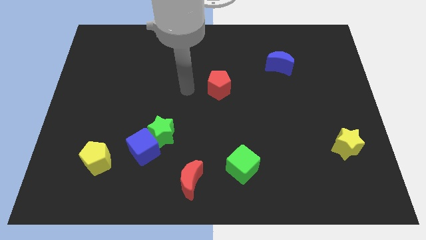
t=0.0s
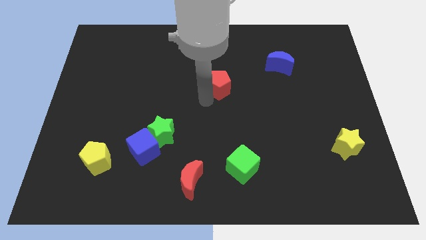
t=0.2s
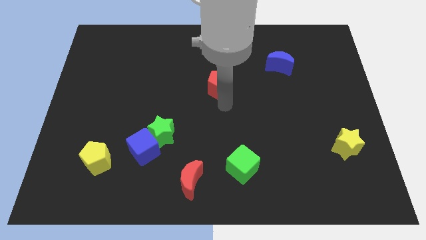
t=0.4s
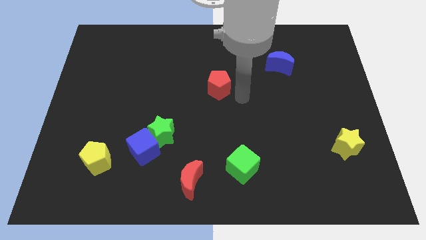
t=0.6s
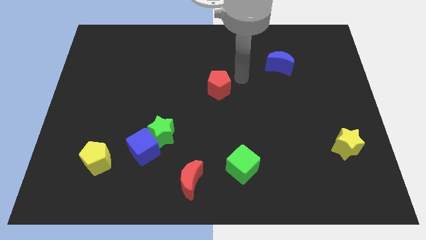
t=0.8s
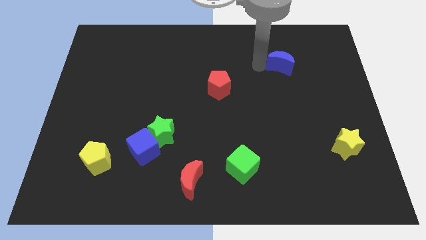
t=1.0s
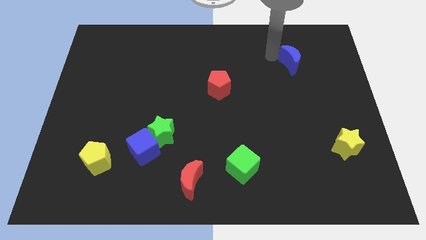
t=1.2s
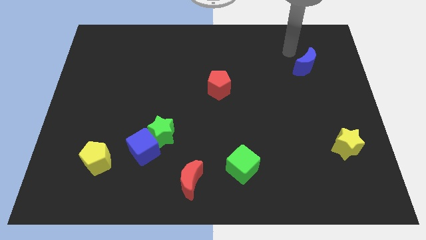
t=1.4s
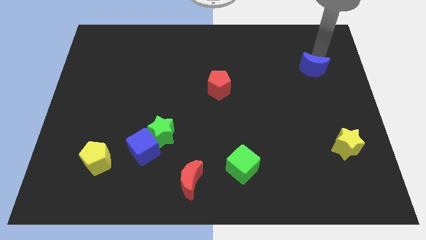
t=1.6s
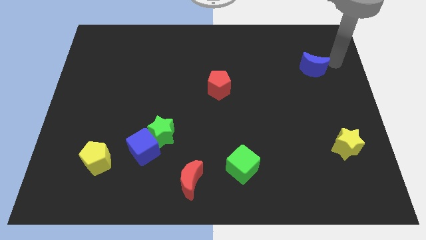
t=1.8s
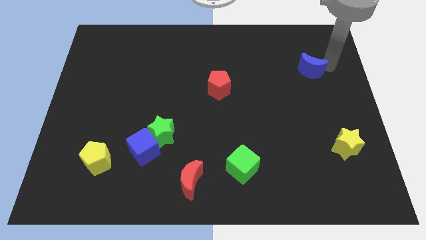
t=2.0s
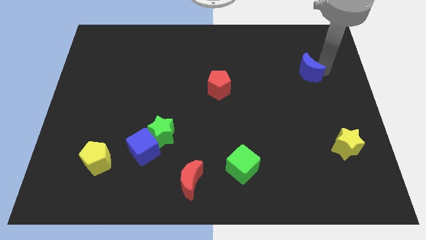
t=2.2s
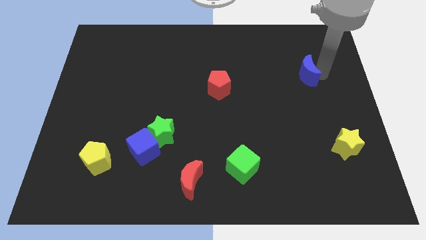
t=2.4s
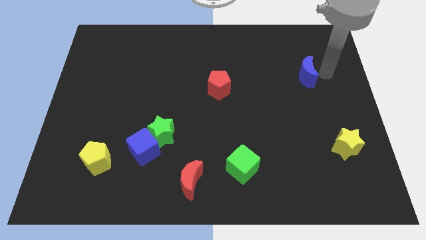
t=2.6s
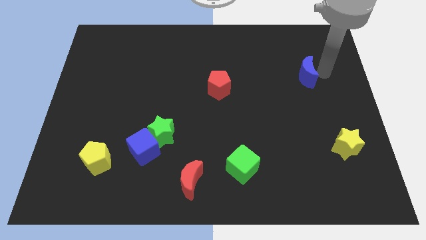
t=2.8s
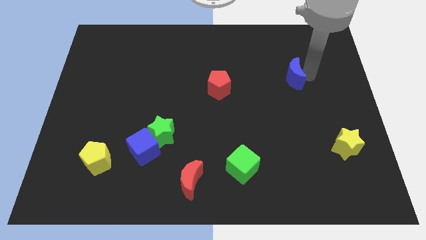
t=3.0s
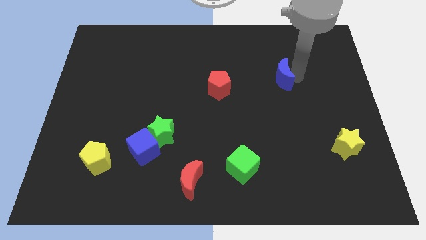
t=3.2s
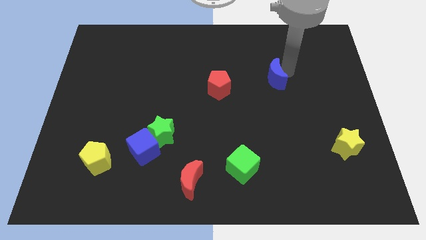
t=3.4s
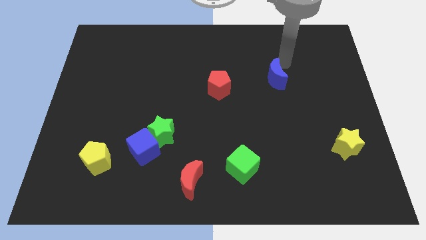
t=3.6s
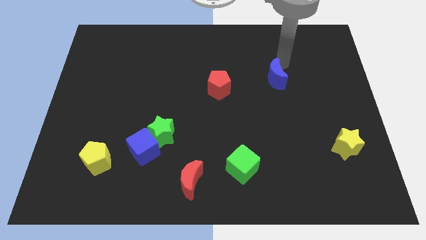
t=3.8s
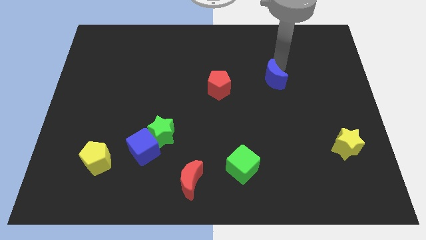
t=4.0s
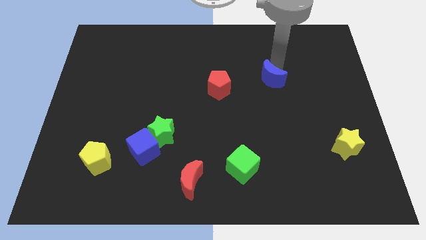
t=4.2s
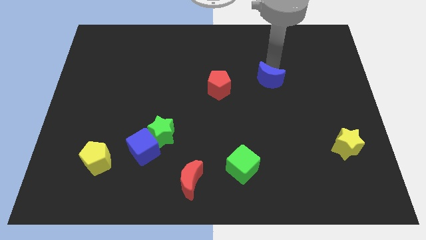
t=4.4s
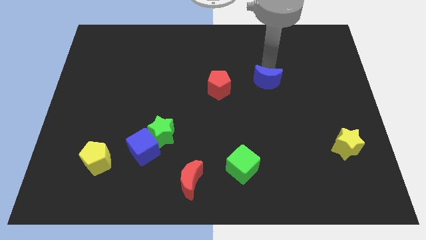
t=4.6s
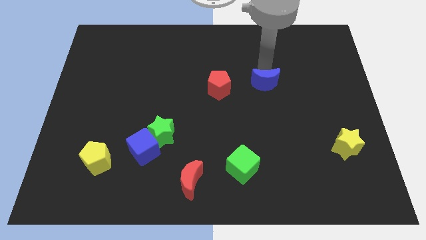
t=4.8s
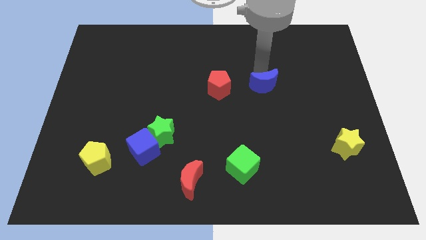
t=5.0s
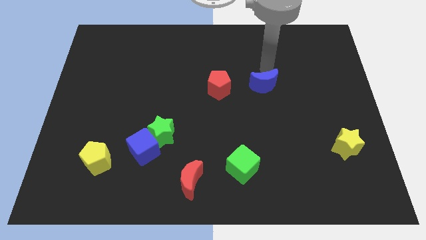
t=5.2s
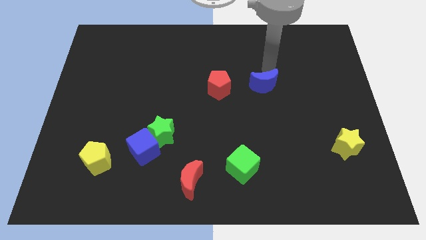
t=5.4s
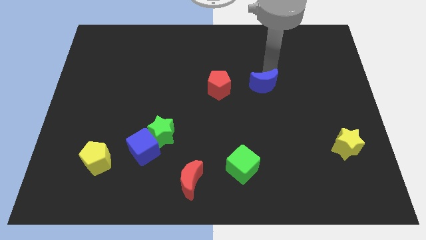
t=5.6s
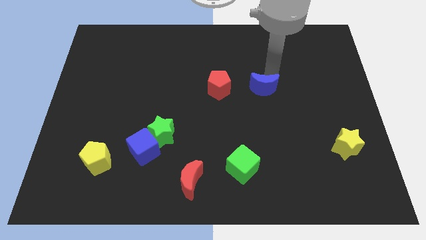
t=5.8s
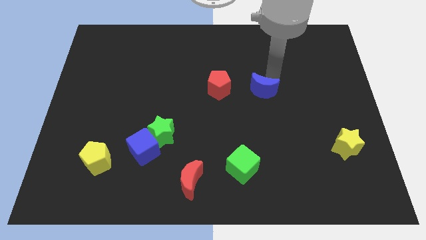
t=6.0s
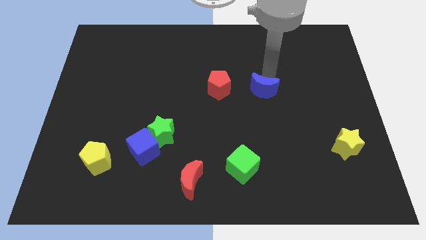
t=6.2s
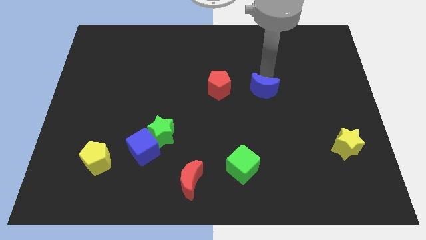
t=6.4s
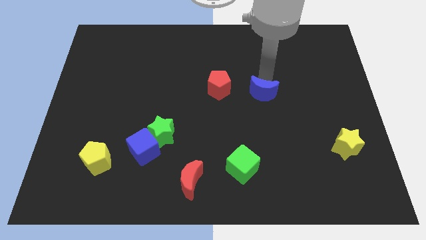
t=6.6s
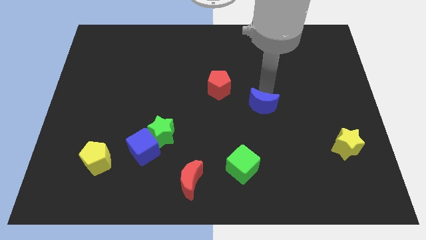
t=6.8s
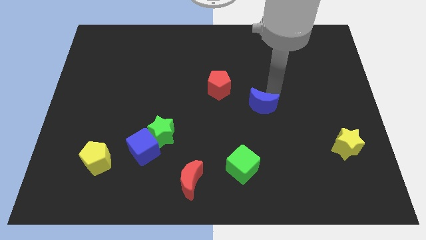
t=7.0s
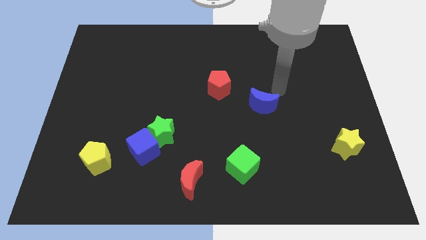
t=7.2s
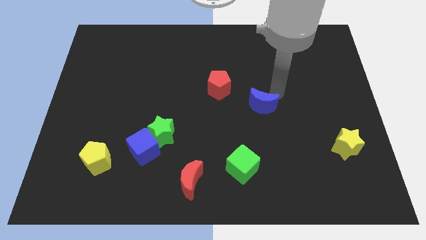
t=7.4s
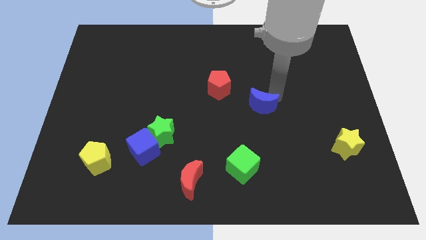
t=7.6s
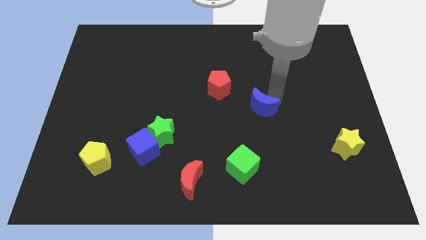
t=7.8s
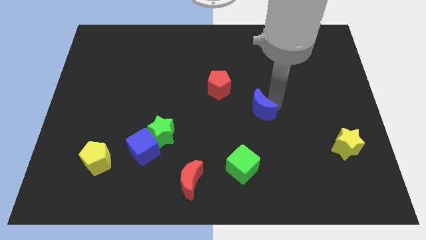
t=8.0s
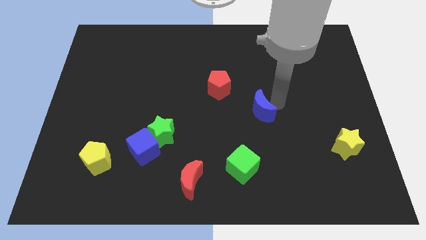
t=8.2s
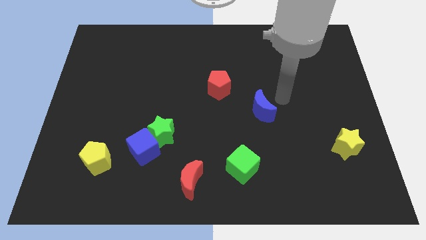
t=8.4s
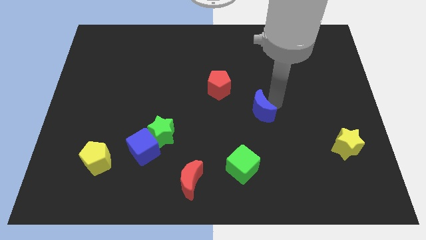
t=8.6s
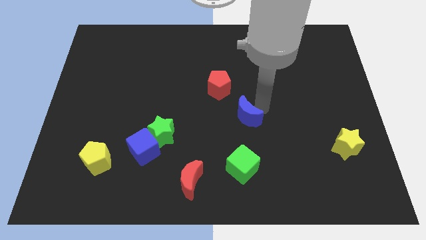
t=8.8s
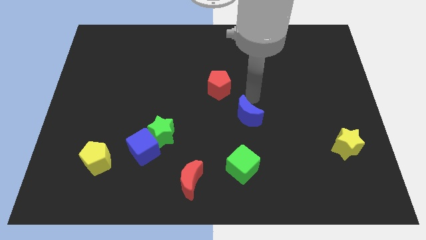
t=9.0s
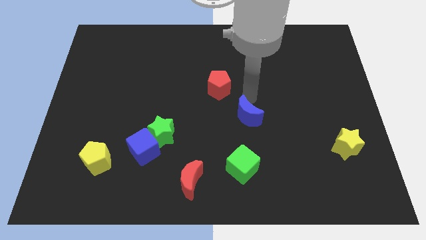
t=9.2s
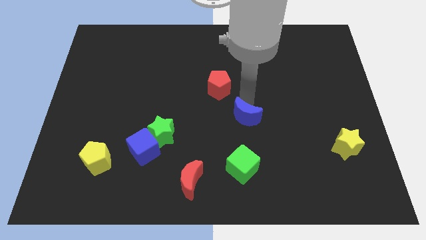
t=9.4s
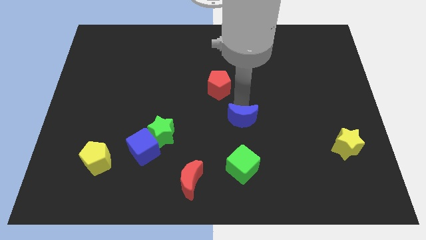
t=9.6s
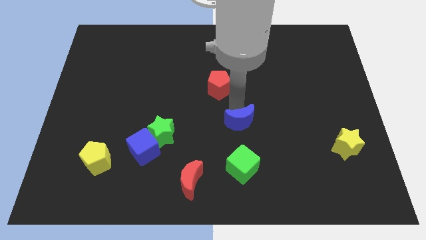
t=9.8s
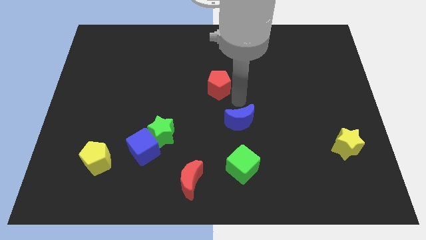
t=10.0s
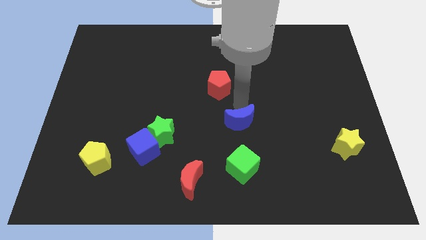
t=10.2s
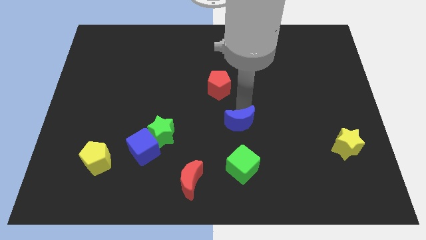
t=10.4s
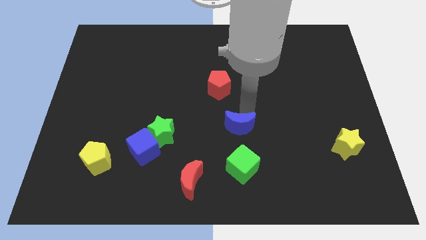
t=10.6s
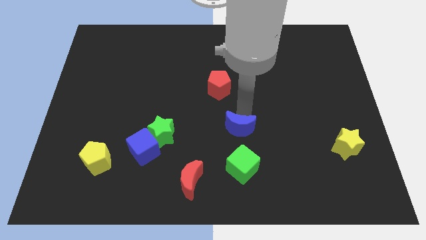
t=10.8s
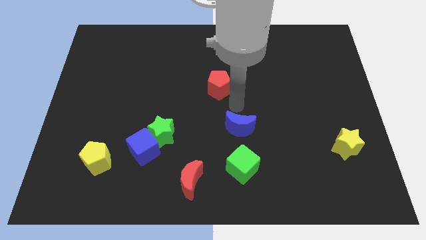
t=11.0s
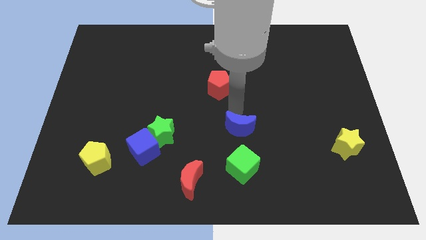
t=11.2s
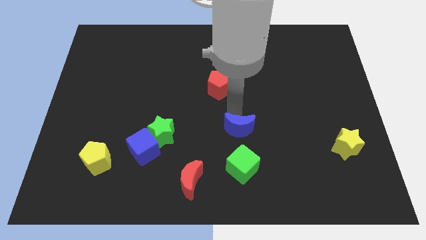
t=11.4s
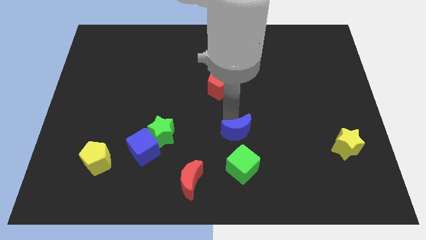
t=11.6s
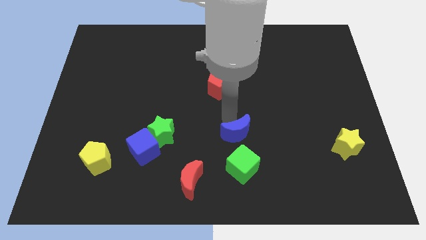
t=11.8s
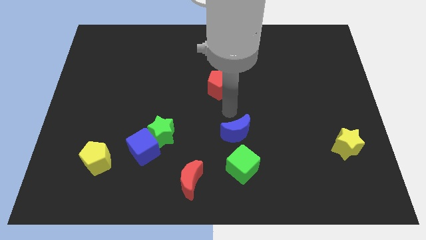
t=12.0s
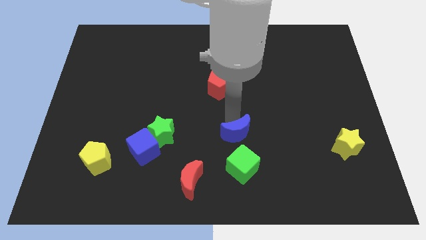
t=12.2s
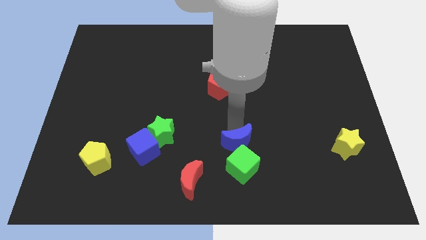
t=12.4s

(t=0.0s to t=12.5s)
put the blue moon towards the green cube

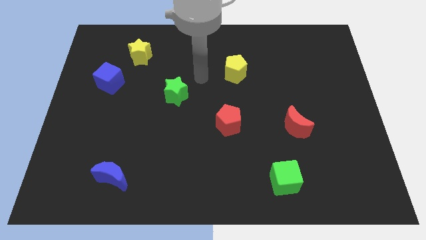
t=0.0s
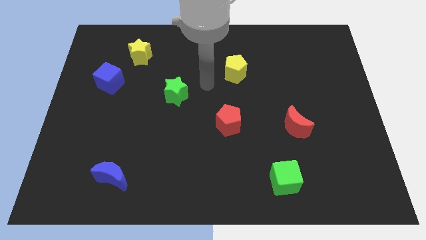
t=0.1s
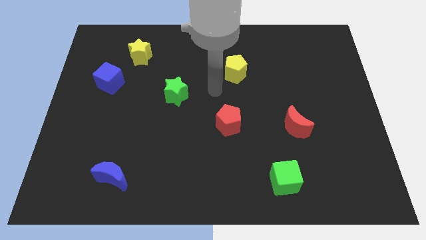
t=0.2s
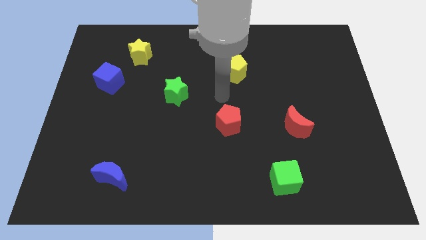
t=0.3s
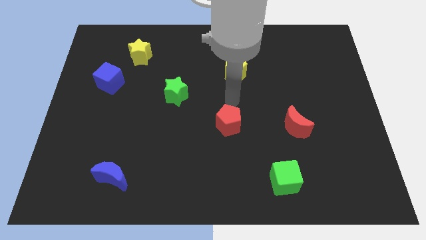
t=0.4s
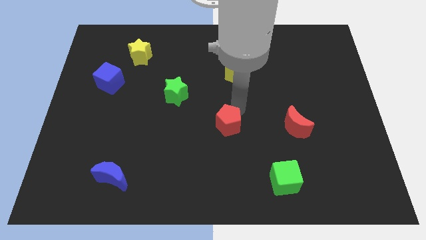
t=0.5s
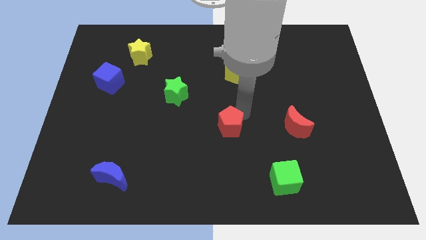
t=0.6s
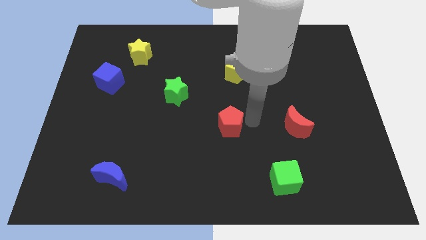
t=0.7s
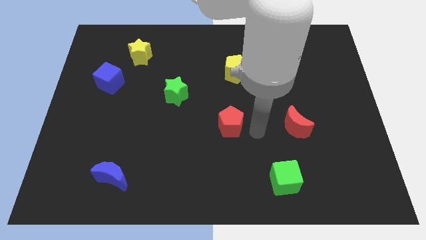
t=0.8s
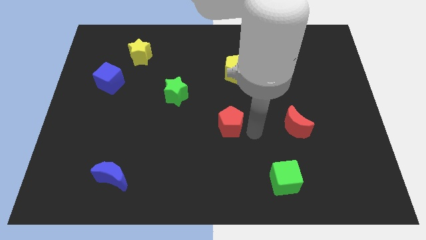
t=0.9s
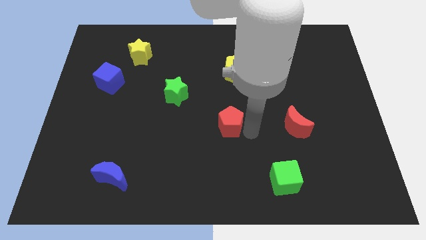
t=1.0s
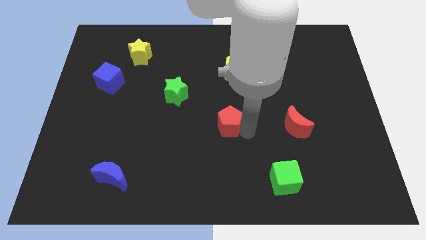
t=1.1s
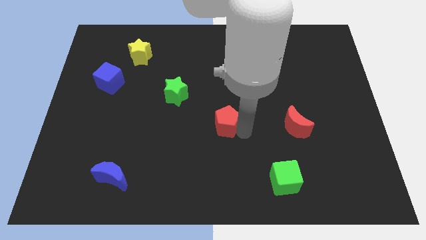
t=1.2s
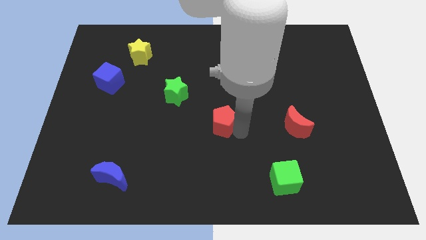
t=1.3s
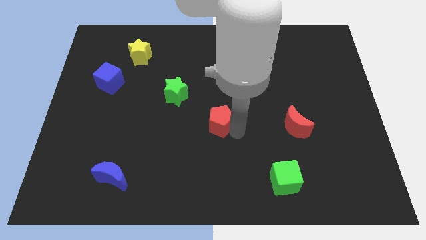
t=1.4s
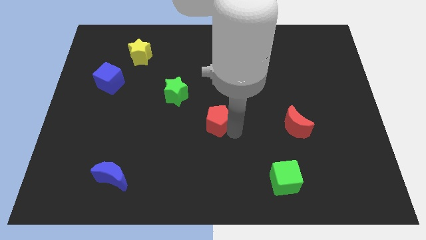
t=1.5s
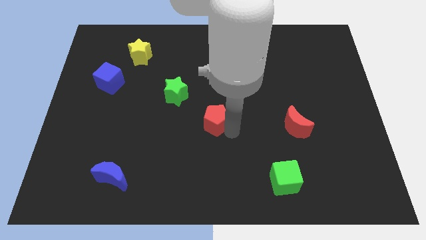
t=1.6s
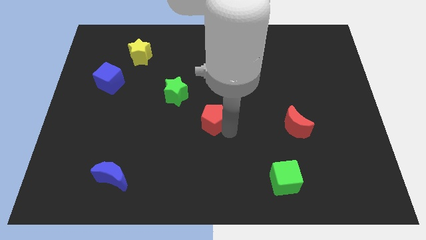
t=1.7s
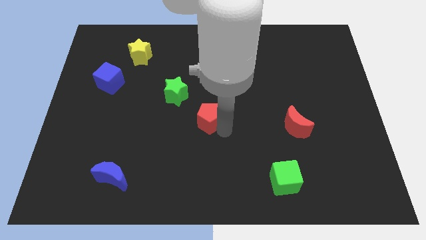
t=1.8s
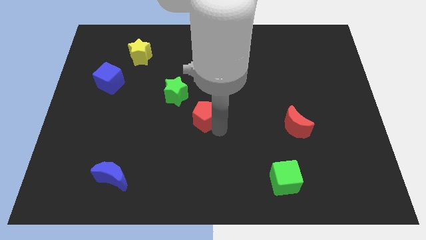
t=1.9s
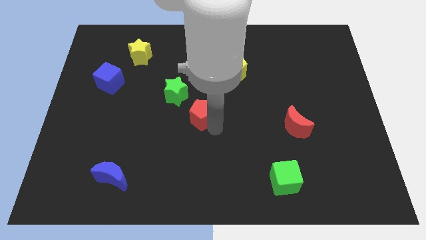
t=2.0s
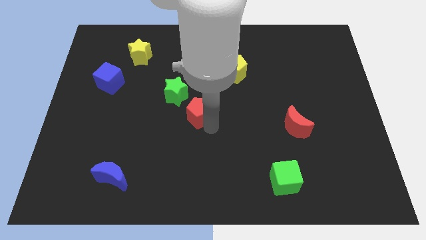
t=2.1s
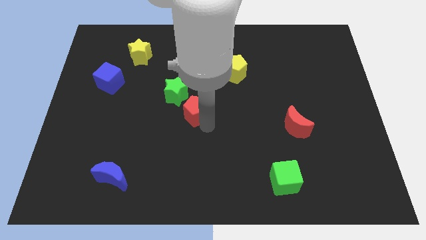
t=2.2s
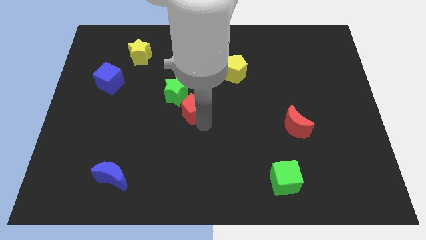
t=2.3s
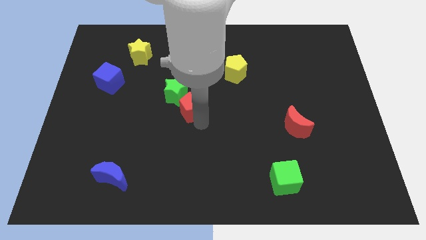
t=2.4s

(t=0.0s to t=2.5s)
slide the red pentagon towards the green star
